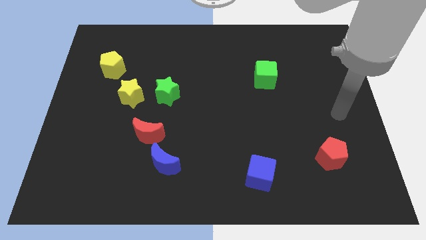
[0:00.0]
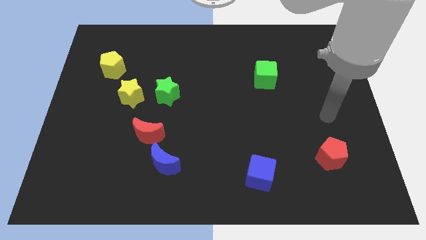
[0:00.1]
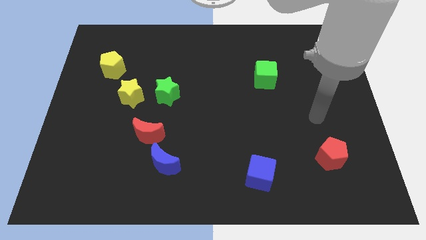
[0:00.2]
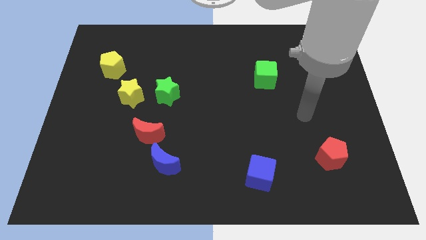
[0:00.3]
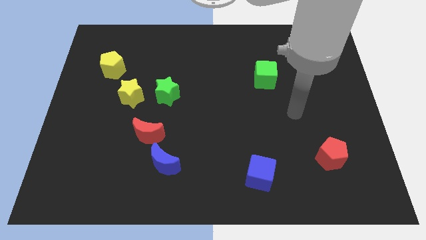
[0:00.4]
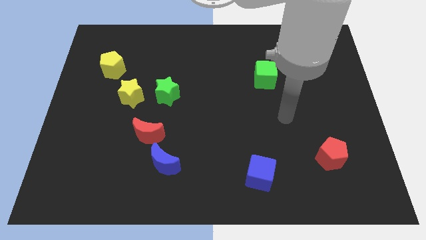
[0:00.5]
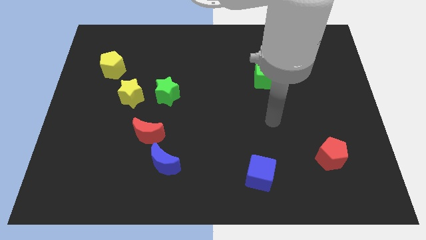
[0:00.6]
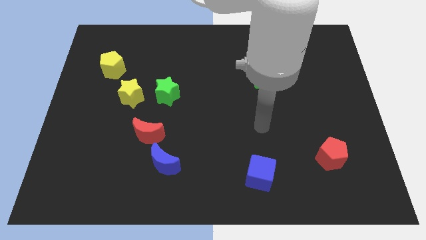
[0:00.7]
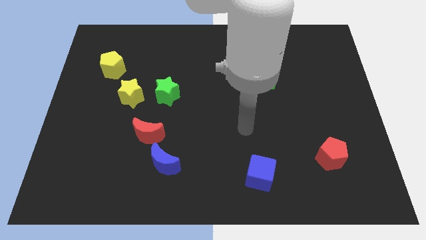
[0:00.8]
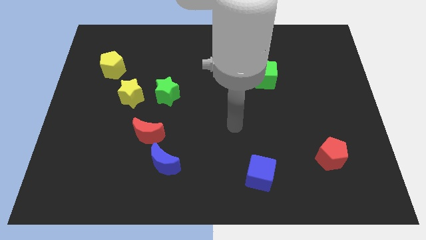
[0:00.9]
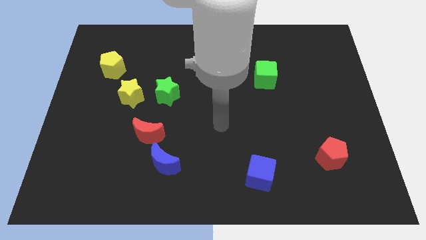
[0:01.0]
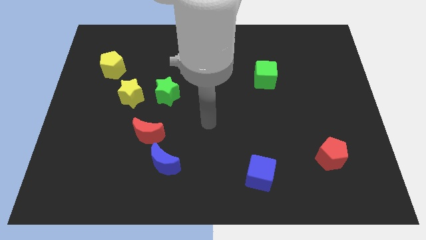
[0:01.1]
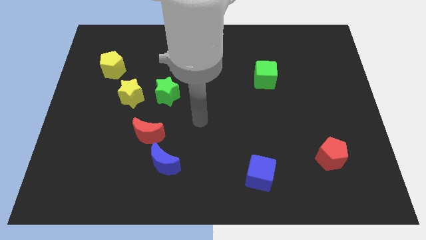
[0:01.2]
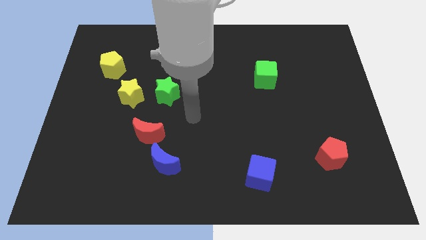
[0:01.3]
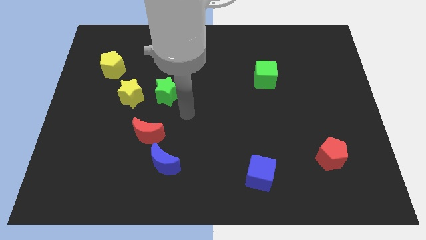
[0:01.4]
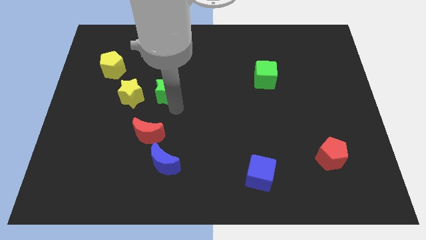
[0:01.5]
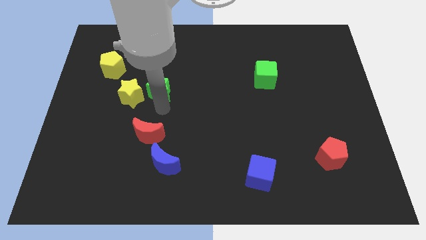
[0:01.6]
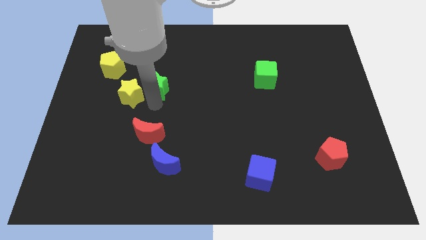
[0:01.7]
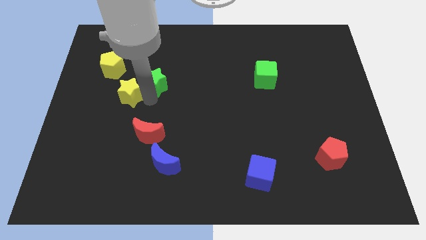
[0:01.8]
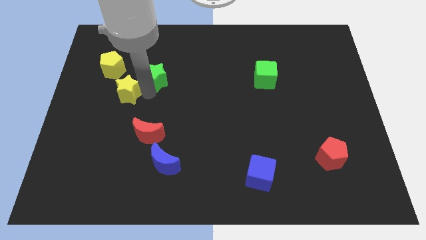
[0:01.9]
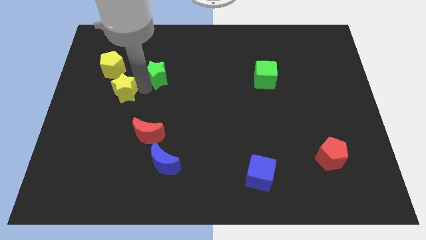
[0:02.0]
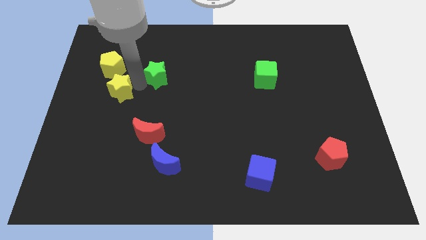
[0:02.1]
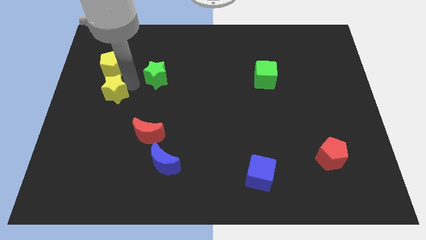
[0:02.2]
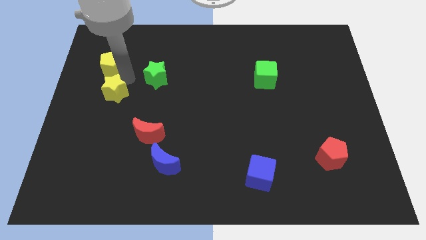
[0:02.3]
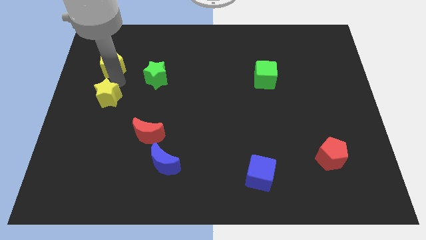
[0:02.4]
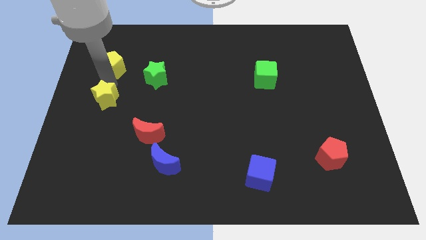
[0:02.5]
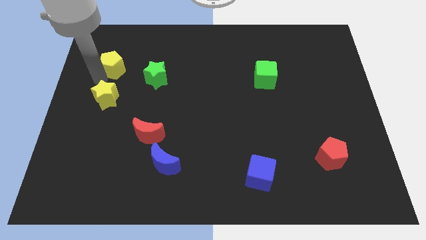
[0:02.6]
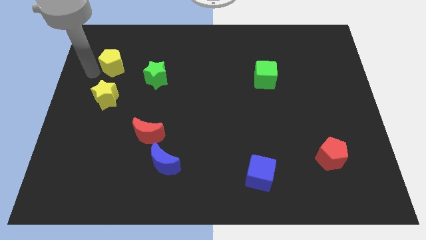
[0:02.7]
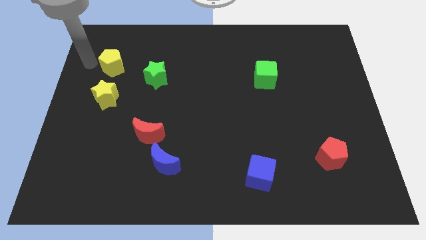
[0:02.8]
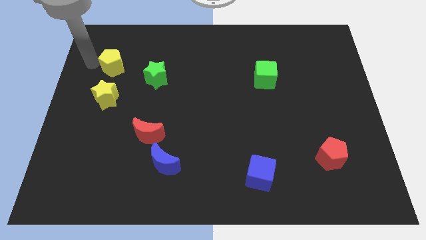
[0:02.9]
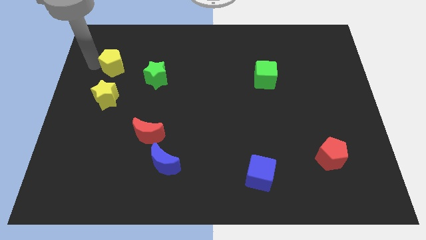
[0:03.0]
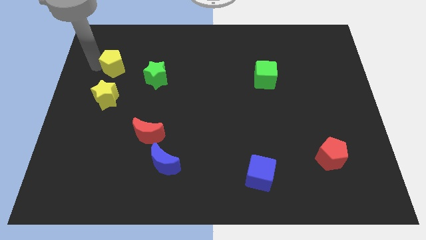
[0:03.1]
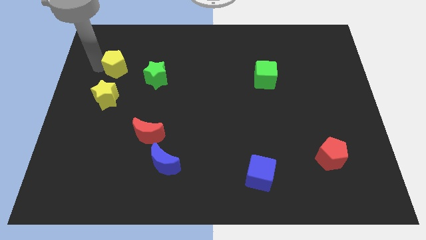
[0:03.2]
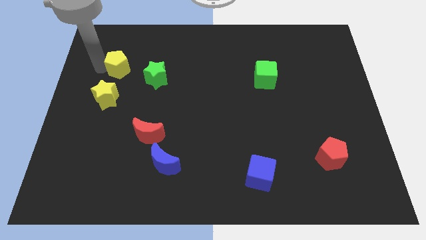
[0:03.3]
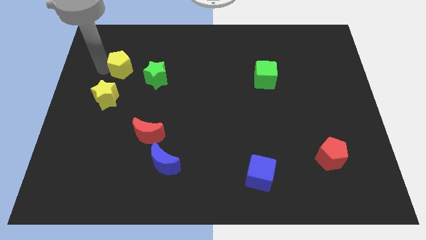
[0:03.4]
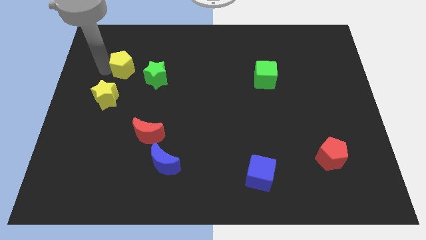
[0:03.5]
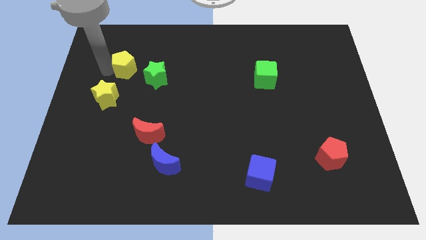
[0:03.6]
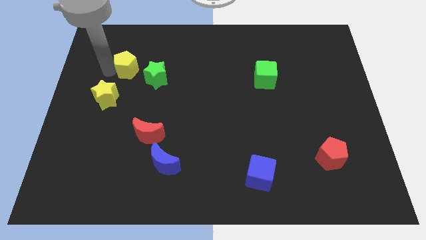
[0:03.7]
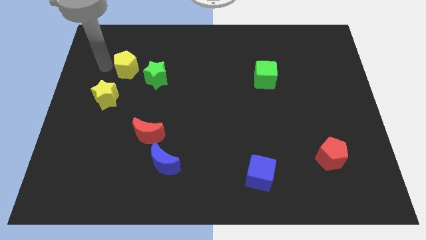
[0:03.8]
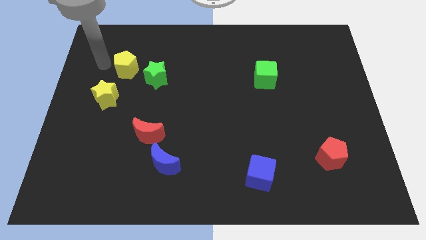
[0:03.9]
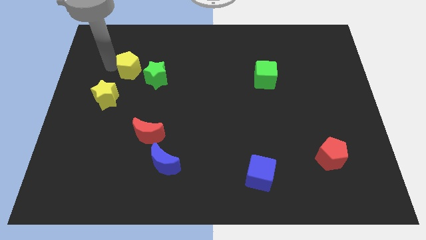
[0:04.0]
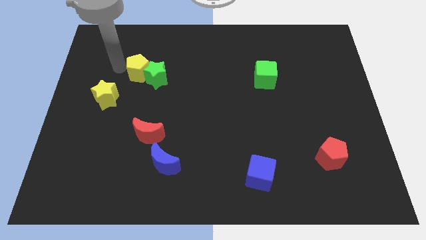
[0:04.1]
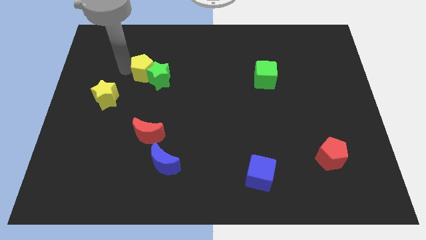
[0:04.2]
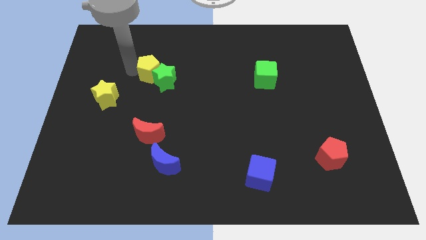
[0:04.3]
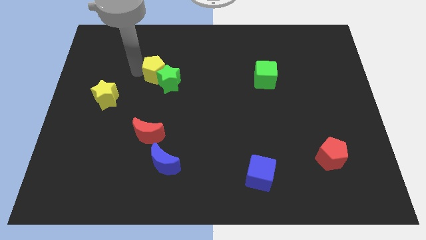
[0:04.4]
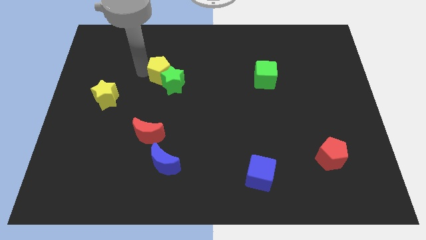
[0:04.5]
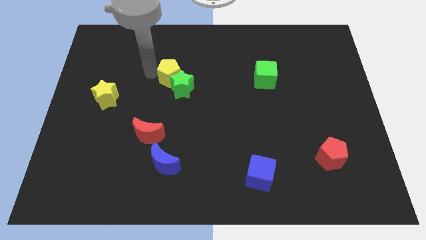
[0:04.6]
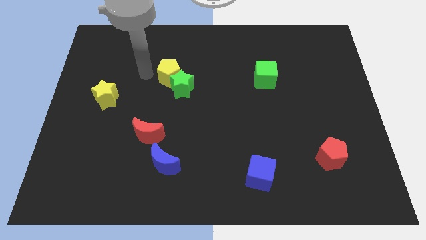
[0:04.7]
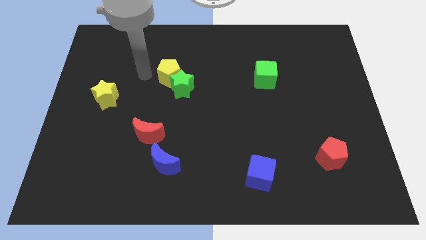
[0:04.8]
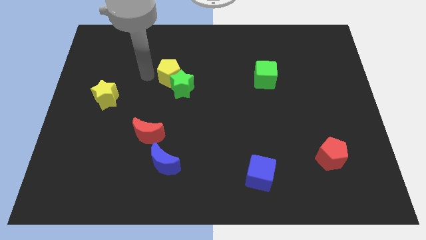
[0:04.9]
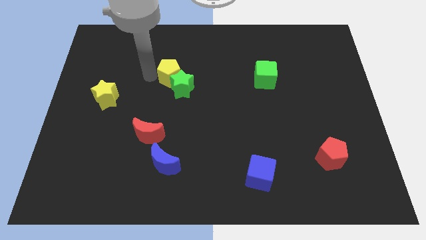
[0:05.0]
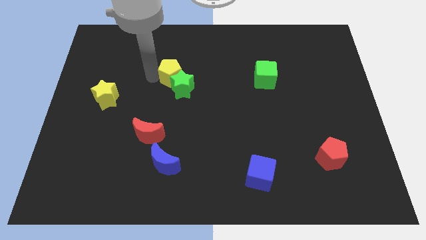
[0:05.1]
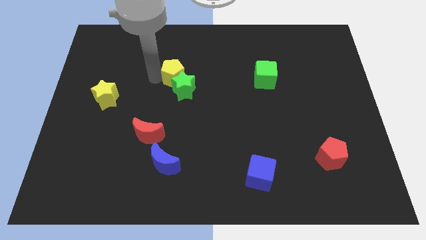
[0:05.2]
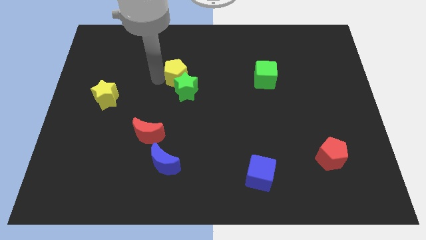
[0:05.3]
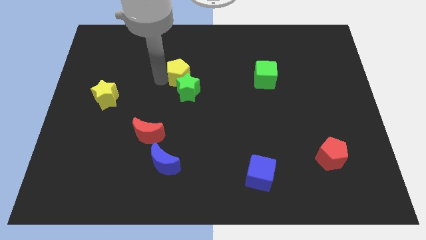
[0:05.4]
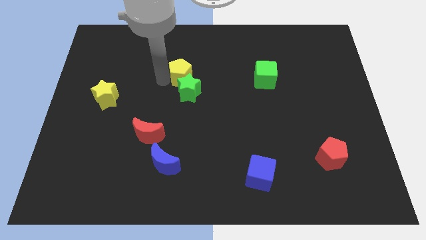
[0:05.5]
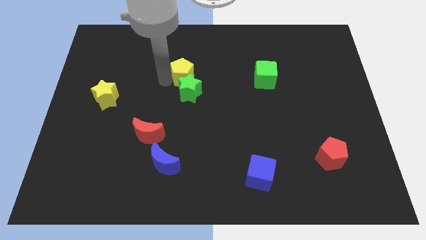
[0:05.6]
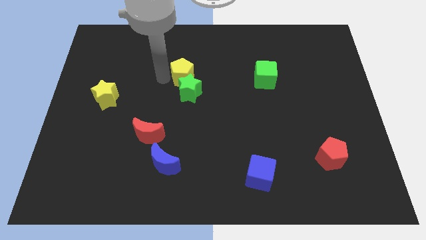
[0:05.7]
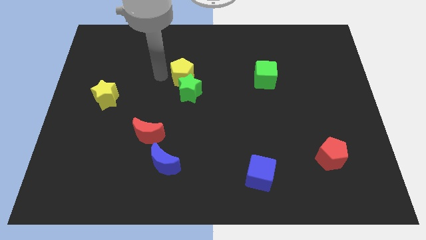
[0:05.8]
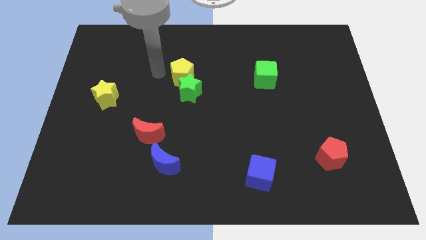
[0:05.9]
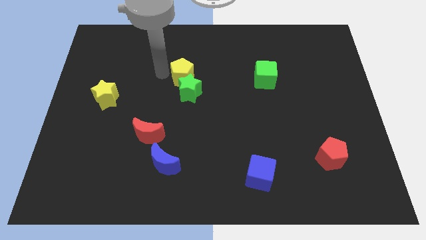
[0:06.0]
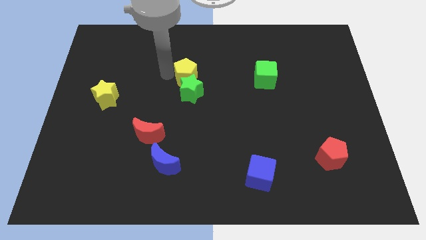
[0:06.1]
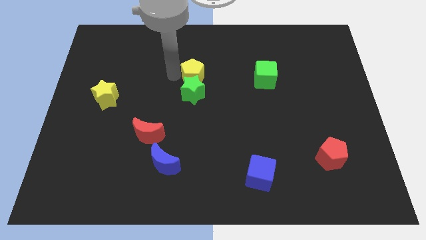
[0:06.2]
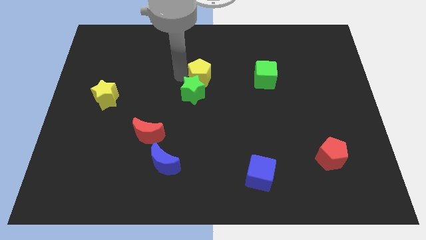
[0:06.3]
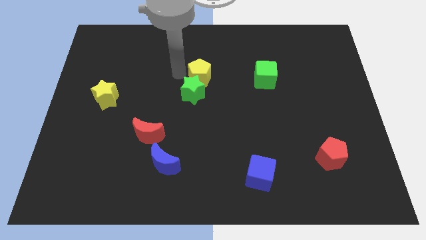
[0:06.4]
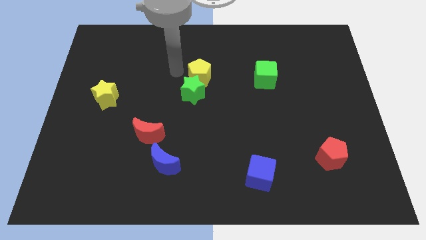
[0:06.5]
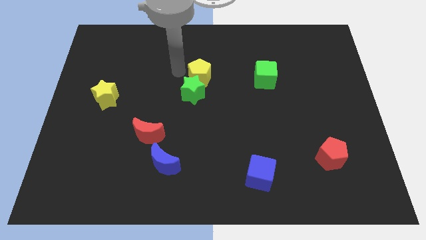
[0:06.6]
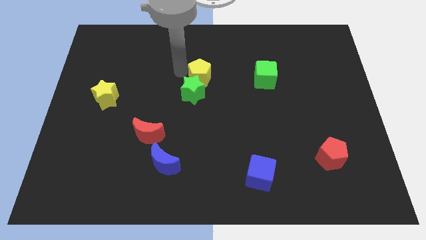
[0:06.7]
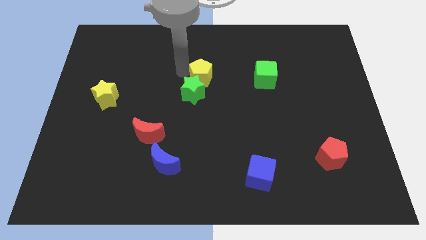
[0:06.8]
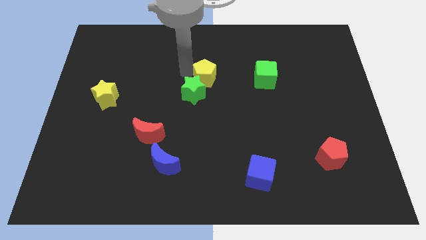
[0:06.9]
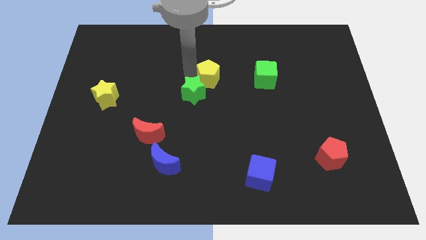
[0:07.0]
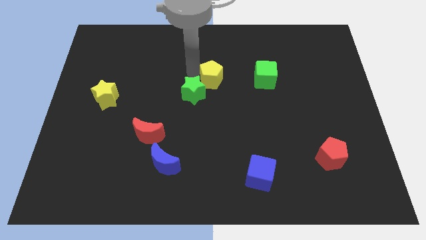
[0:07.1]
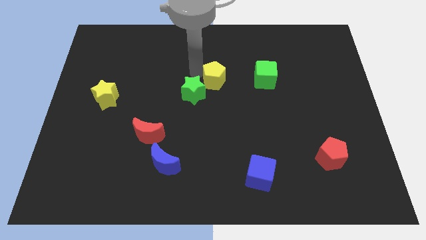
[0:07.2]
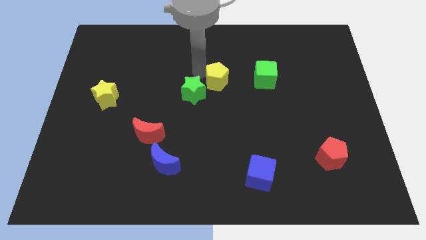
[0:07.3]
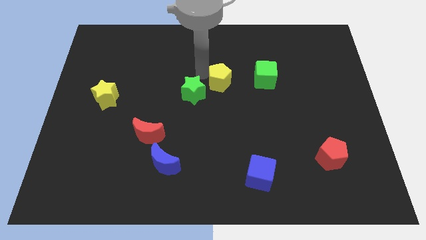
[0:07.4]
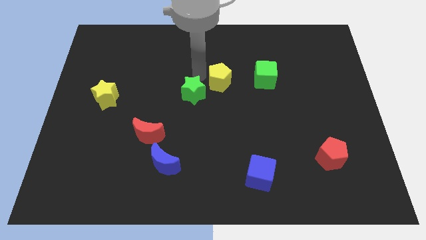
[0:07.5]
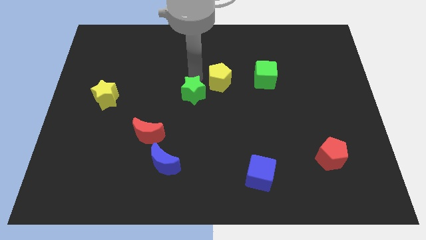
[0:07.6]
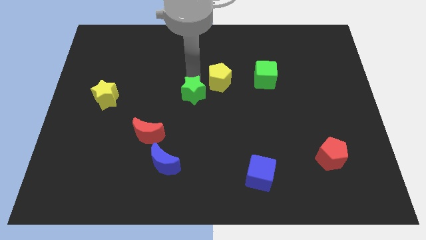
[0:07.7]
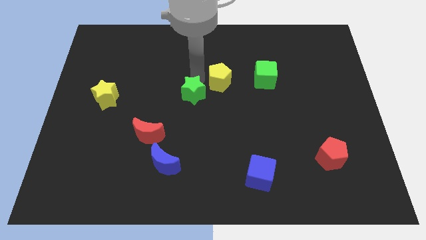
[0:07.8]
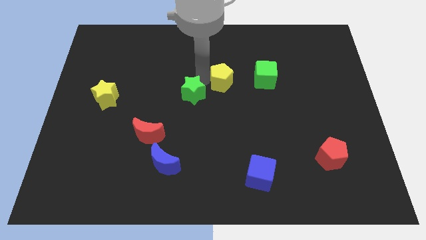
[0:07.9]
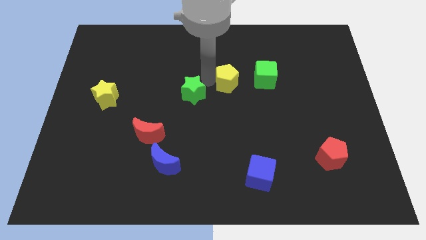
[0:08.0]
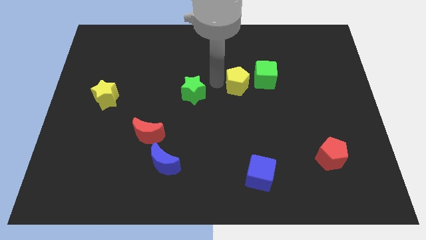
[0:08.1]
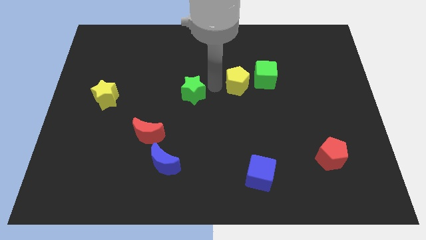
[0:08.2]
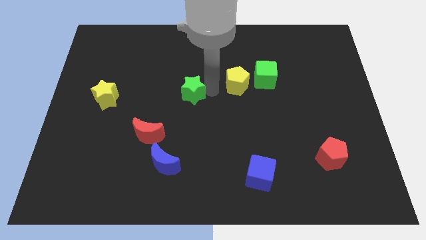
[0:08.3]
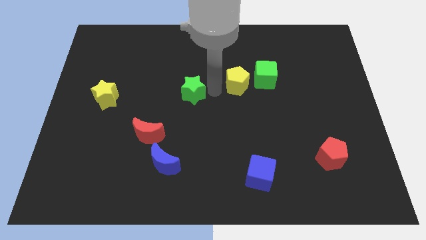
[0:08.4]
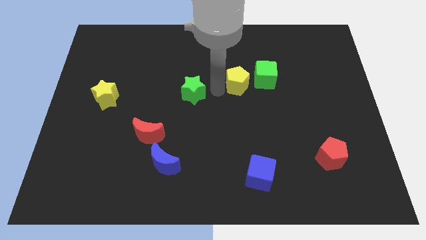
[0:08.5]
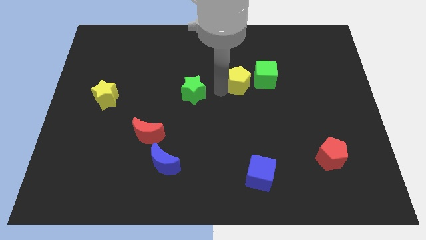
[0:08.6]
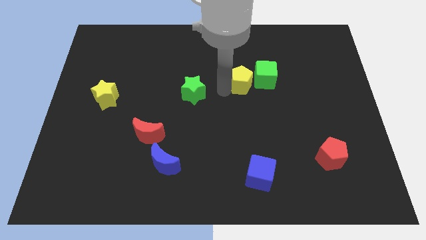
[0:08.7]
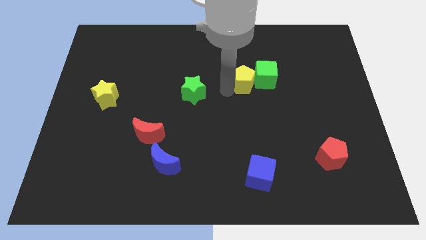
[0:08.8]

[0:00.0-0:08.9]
put the yellow pentagon next to the green cube
